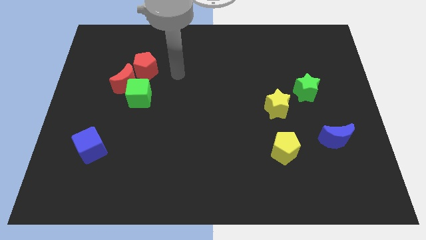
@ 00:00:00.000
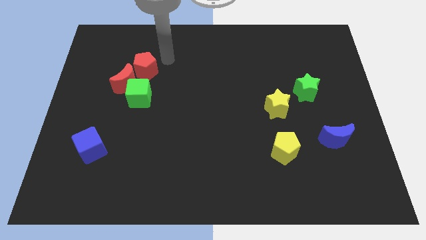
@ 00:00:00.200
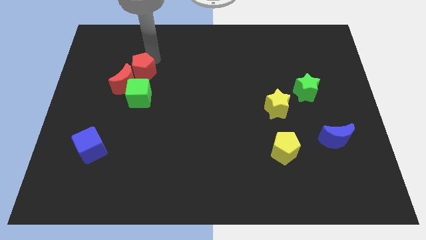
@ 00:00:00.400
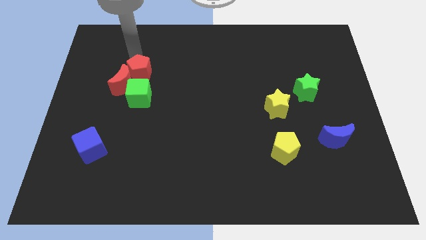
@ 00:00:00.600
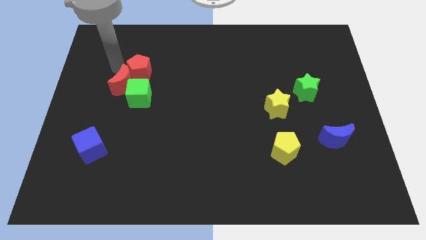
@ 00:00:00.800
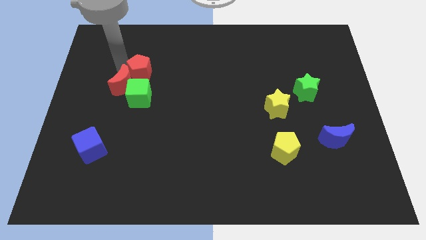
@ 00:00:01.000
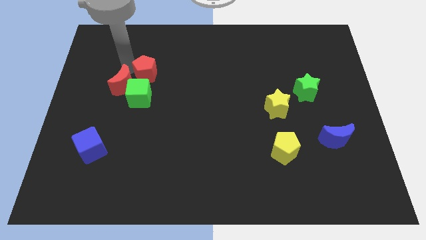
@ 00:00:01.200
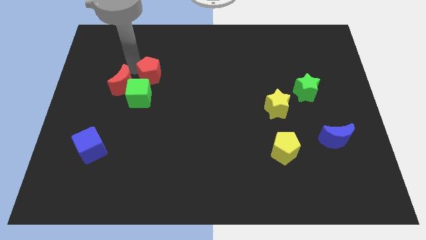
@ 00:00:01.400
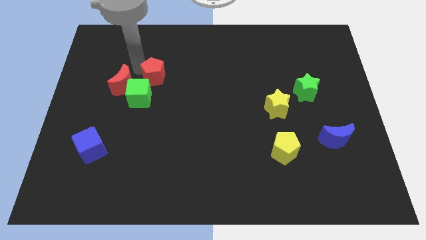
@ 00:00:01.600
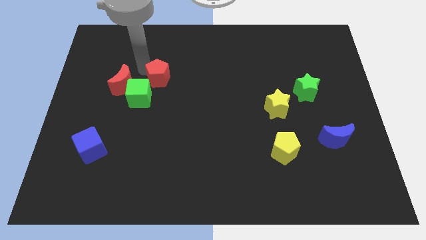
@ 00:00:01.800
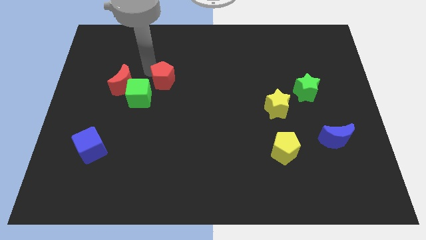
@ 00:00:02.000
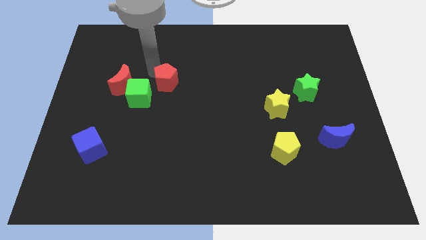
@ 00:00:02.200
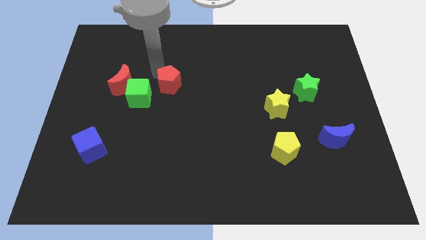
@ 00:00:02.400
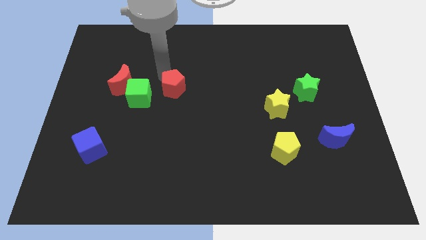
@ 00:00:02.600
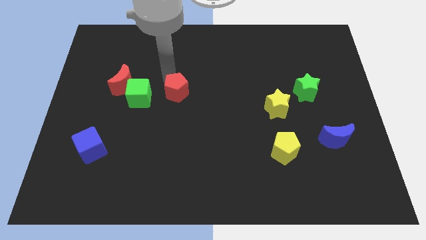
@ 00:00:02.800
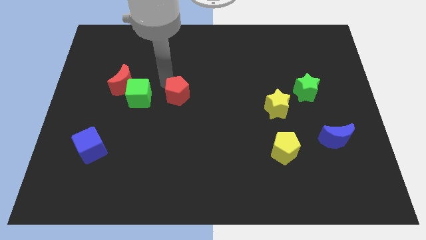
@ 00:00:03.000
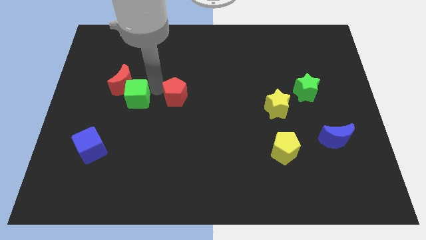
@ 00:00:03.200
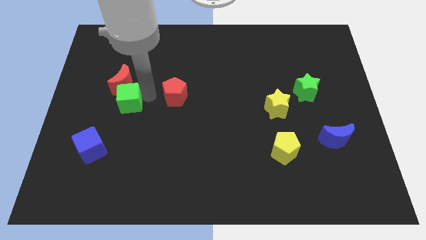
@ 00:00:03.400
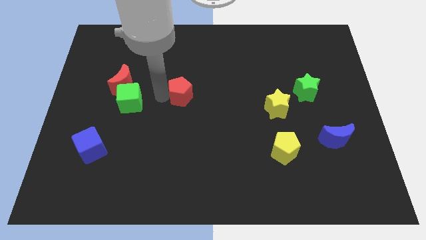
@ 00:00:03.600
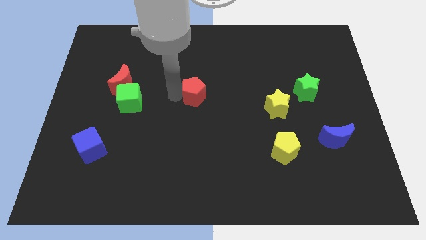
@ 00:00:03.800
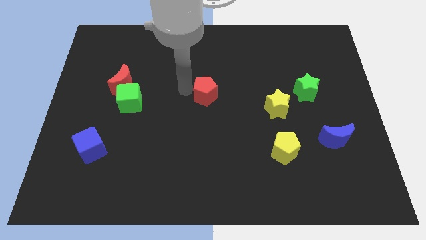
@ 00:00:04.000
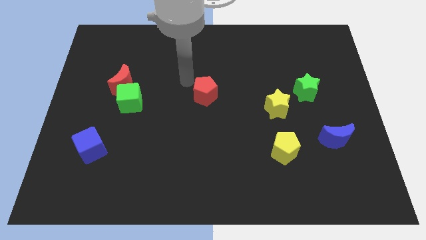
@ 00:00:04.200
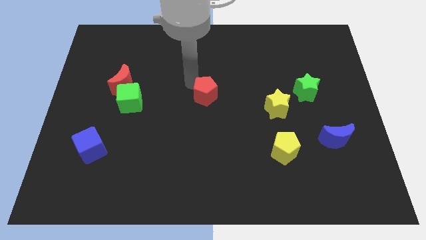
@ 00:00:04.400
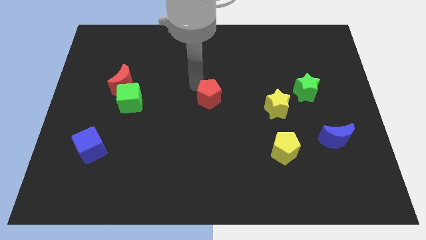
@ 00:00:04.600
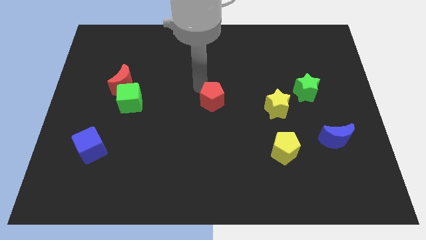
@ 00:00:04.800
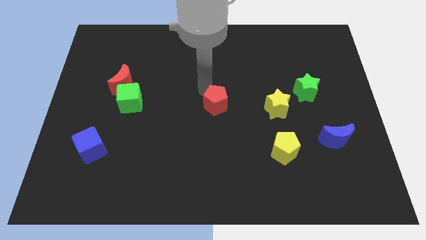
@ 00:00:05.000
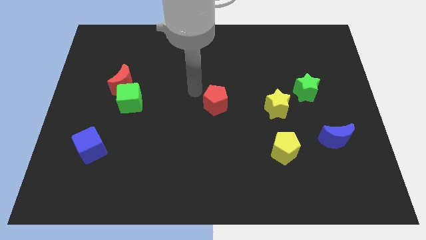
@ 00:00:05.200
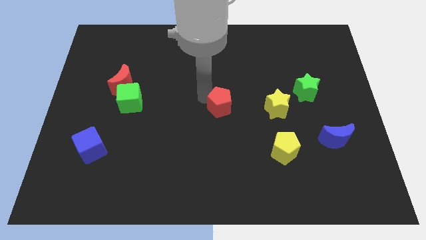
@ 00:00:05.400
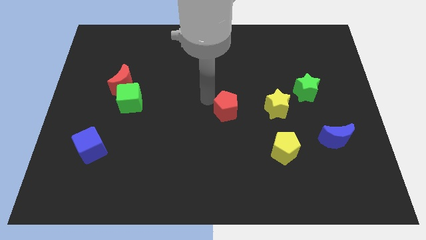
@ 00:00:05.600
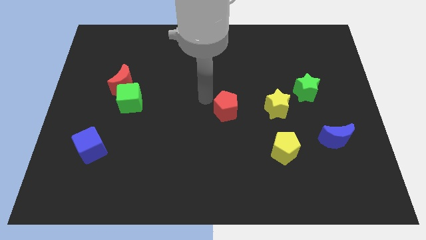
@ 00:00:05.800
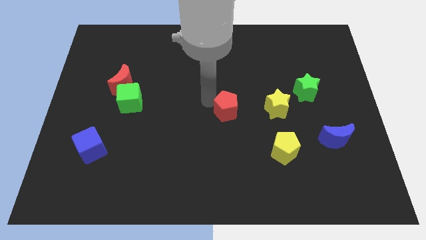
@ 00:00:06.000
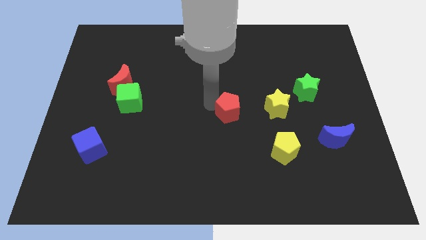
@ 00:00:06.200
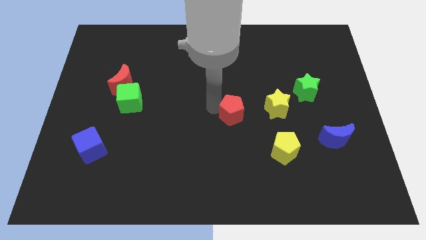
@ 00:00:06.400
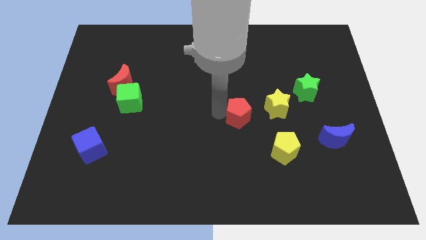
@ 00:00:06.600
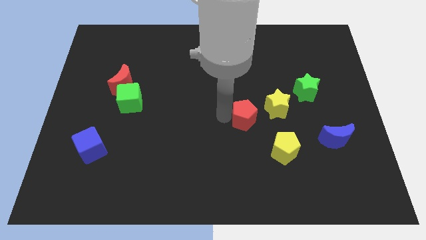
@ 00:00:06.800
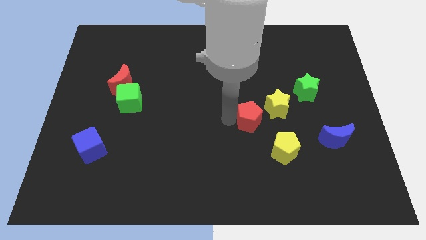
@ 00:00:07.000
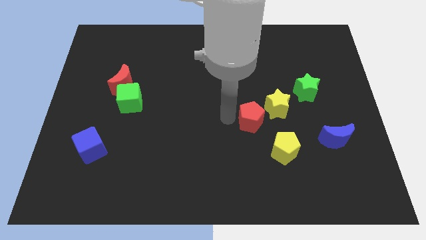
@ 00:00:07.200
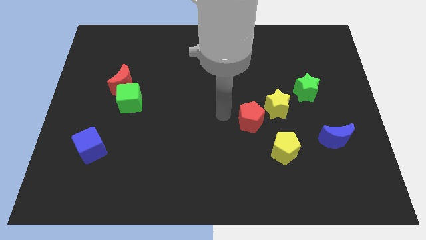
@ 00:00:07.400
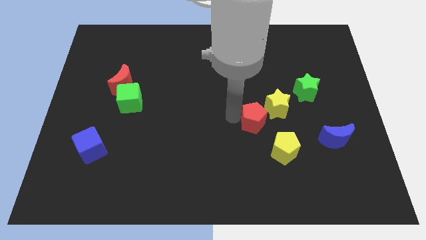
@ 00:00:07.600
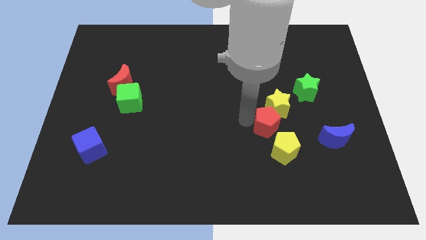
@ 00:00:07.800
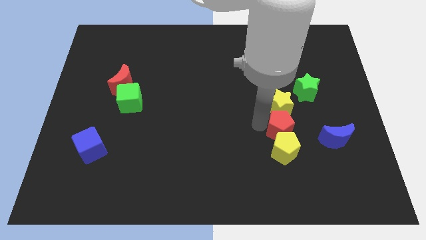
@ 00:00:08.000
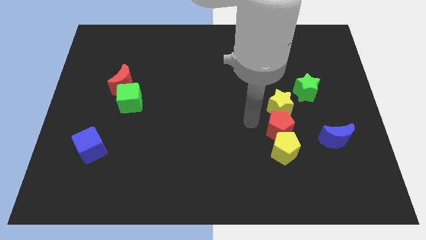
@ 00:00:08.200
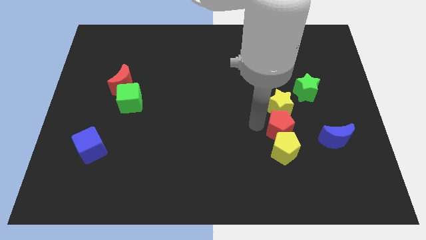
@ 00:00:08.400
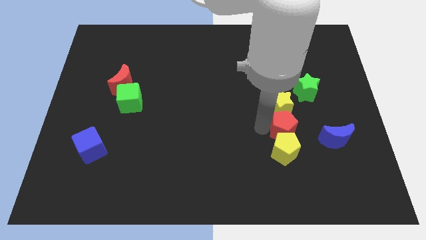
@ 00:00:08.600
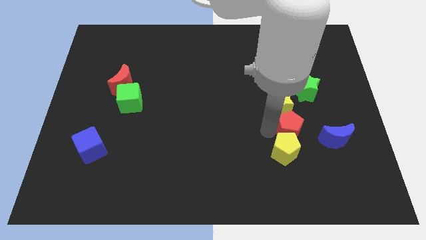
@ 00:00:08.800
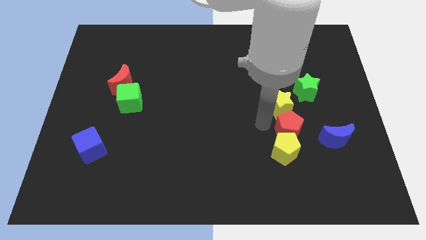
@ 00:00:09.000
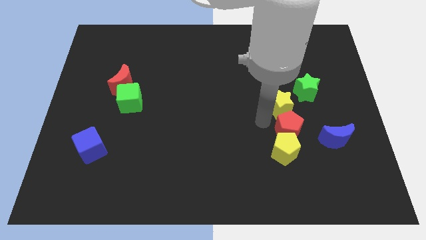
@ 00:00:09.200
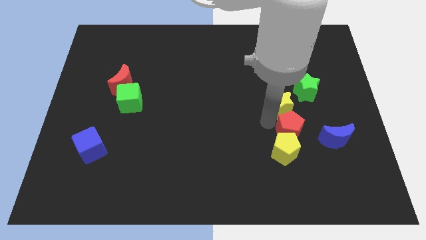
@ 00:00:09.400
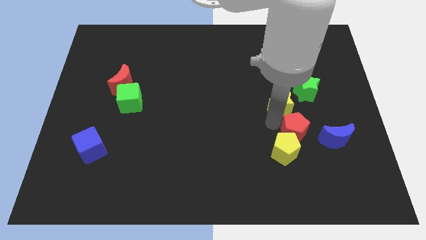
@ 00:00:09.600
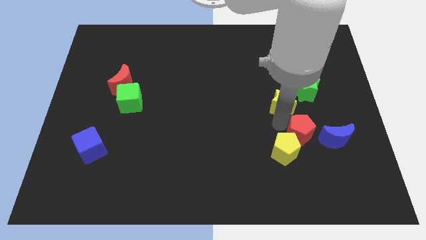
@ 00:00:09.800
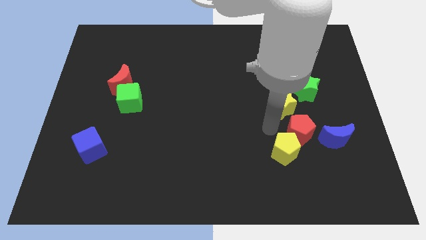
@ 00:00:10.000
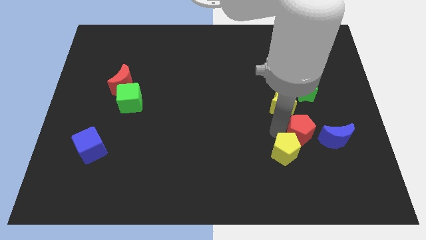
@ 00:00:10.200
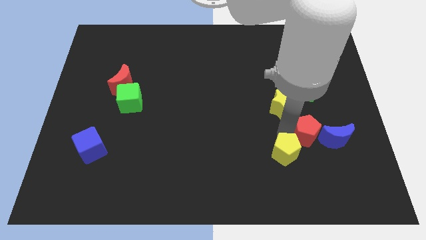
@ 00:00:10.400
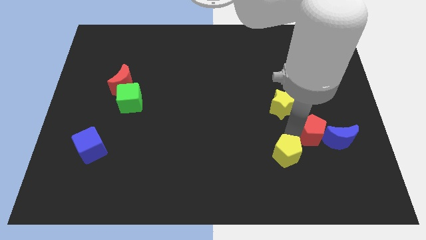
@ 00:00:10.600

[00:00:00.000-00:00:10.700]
move the red pentagon towards the blue moon

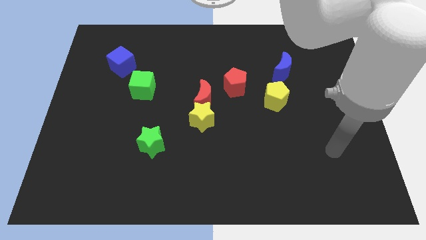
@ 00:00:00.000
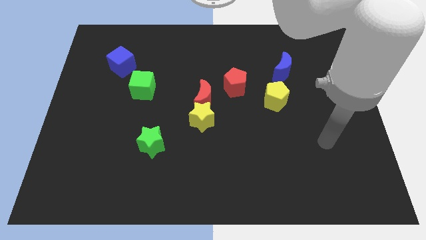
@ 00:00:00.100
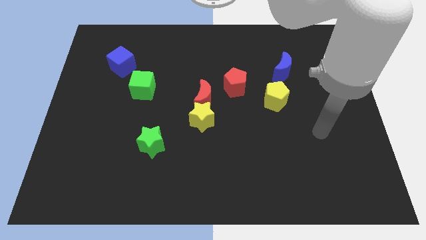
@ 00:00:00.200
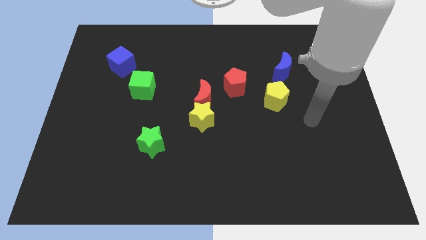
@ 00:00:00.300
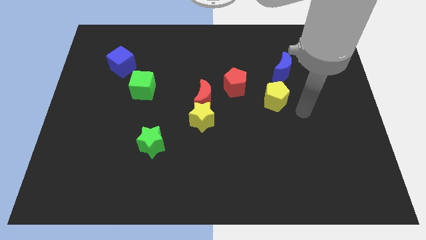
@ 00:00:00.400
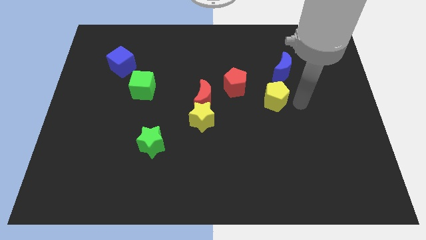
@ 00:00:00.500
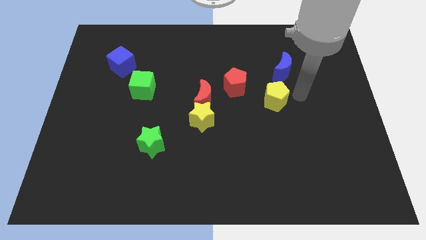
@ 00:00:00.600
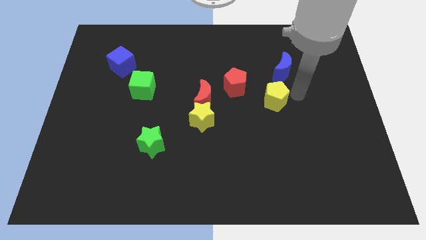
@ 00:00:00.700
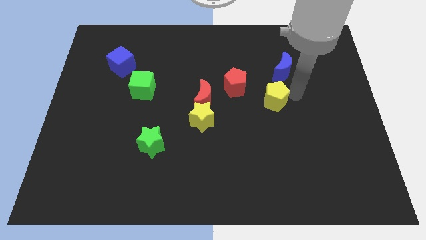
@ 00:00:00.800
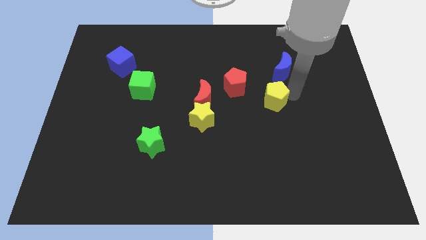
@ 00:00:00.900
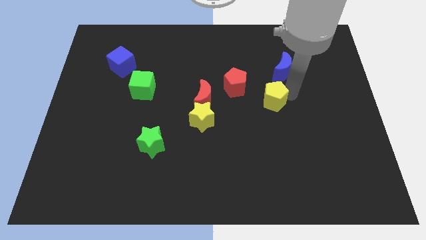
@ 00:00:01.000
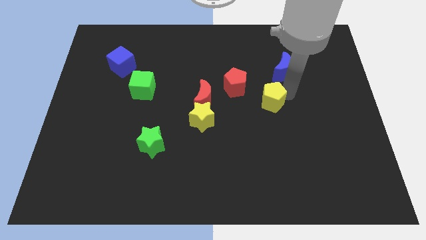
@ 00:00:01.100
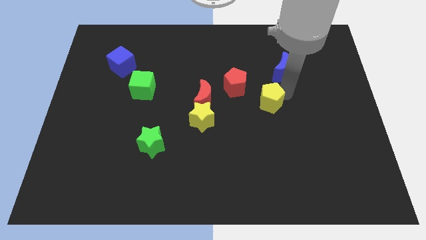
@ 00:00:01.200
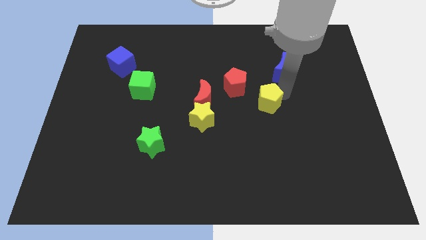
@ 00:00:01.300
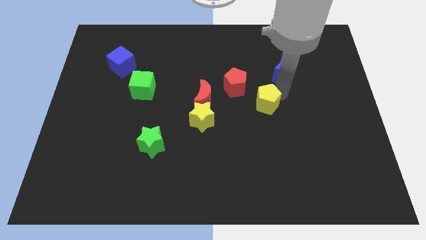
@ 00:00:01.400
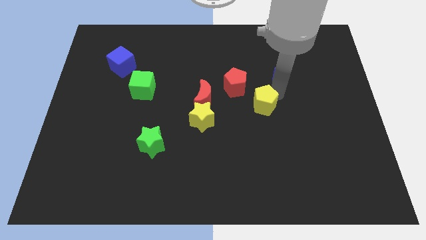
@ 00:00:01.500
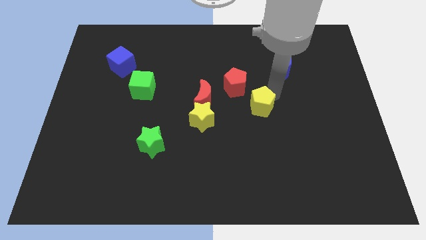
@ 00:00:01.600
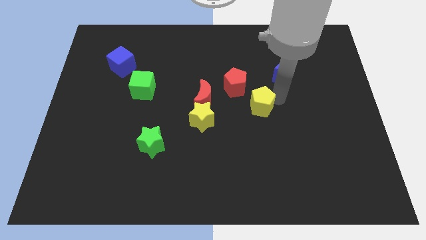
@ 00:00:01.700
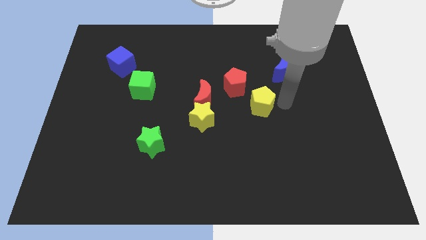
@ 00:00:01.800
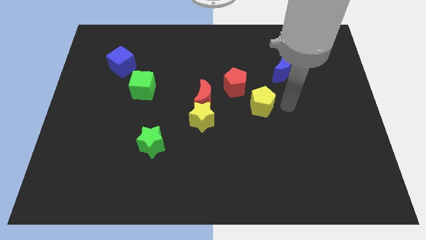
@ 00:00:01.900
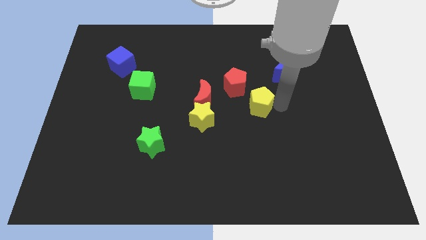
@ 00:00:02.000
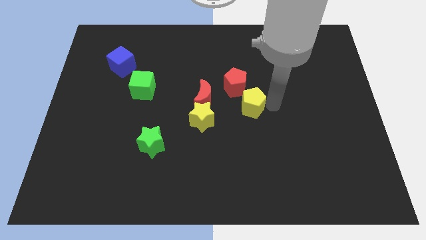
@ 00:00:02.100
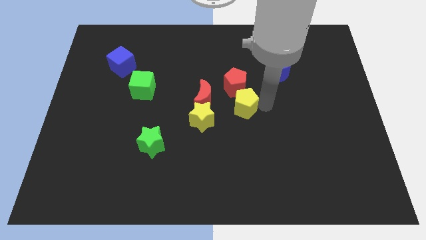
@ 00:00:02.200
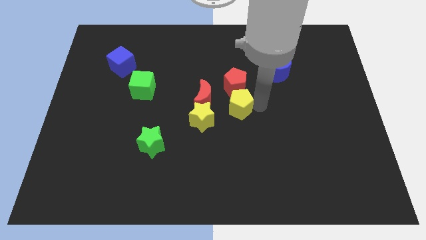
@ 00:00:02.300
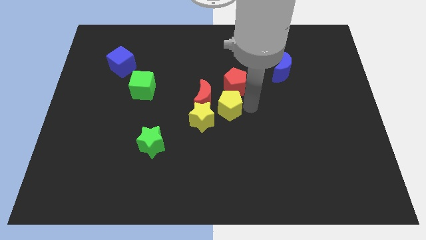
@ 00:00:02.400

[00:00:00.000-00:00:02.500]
move the yellow pentagon close to the red moon
